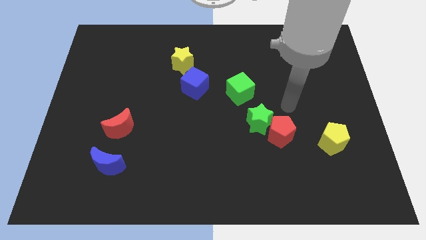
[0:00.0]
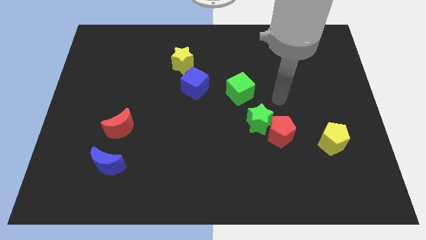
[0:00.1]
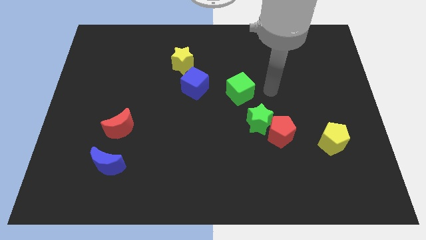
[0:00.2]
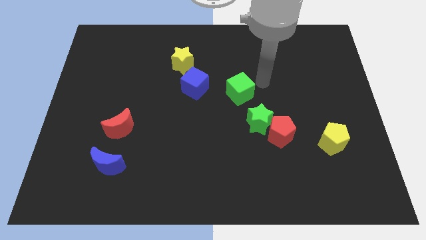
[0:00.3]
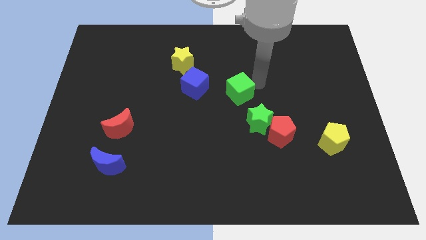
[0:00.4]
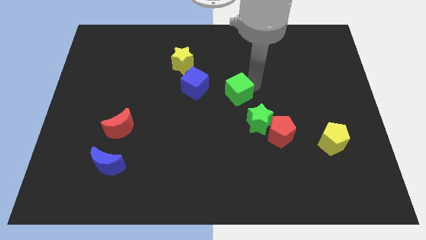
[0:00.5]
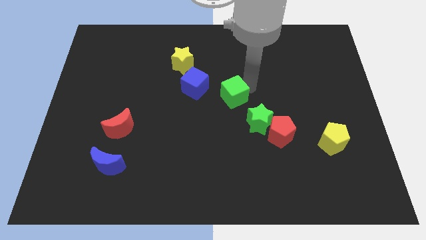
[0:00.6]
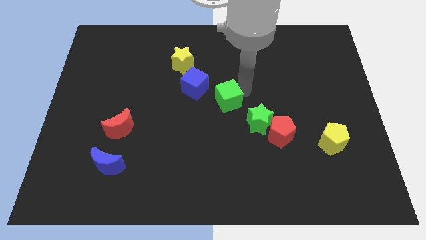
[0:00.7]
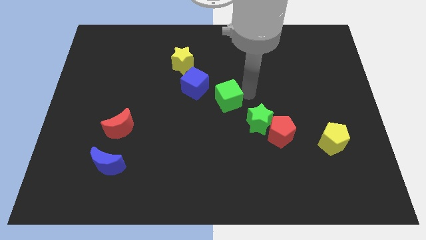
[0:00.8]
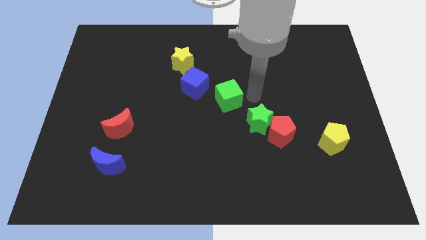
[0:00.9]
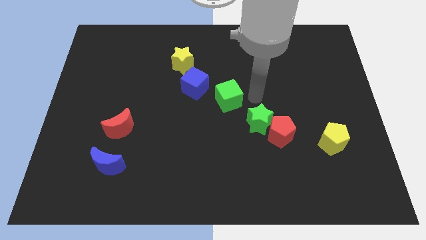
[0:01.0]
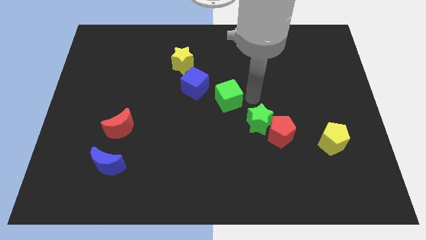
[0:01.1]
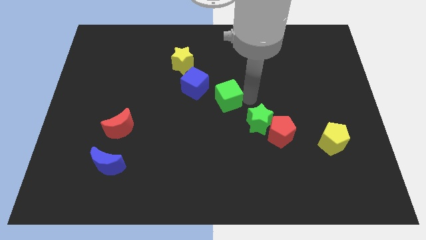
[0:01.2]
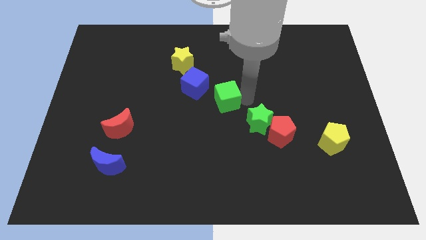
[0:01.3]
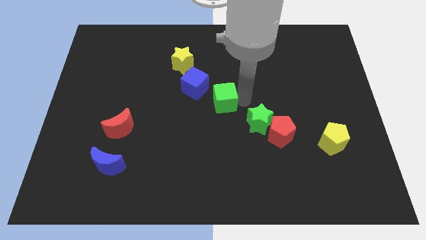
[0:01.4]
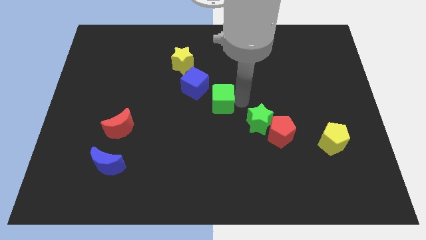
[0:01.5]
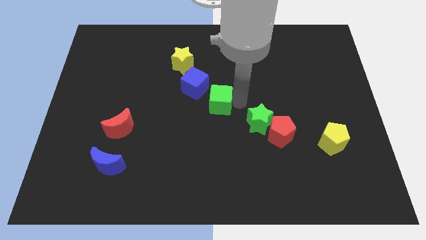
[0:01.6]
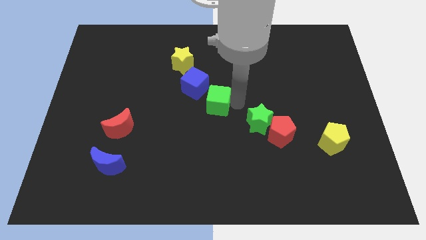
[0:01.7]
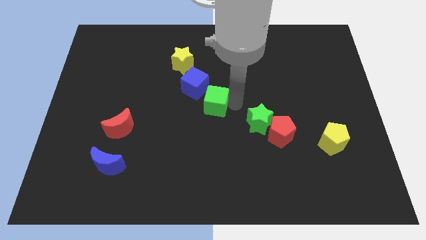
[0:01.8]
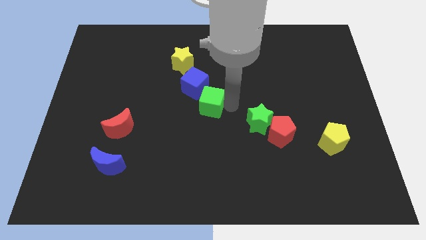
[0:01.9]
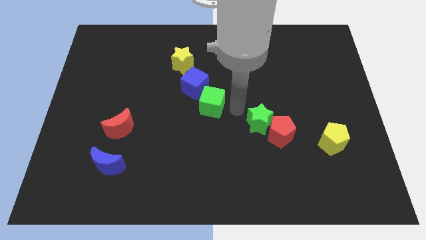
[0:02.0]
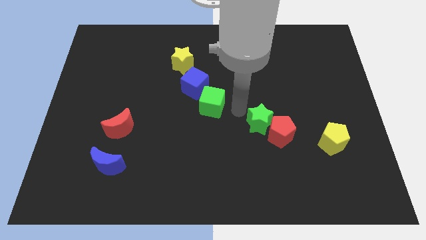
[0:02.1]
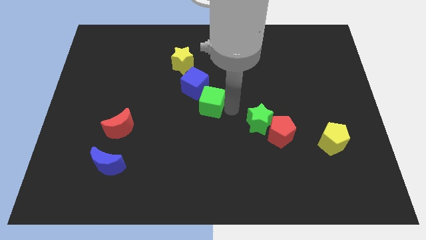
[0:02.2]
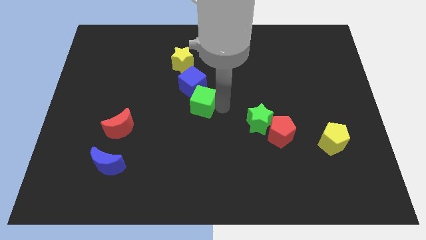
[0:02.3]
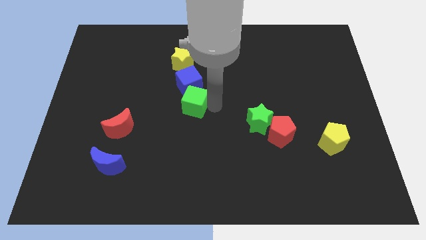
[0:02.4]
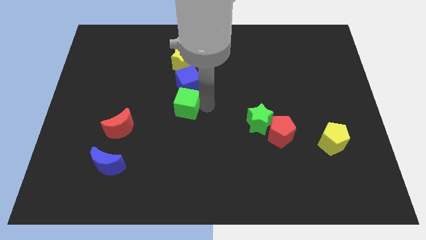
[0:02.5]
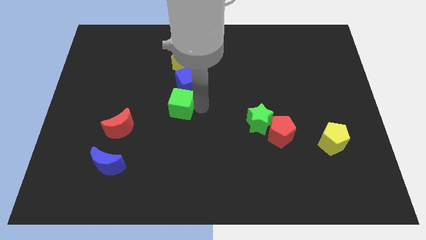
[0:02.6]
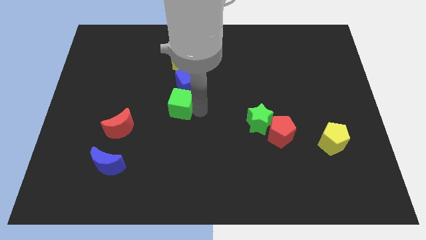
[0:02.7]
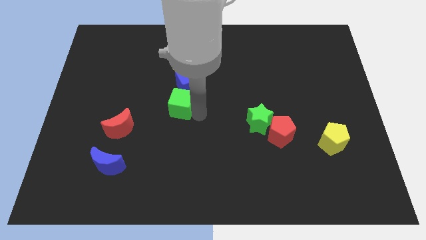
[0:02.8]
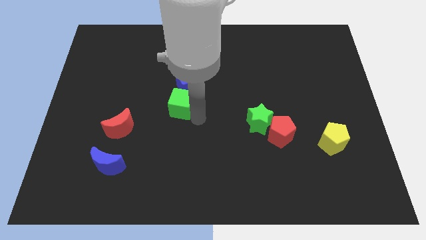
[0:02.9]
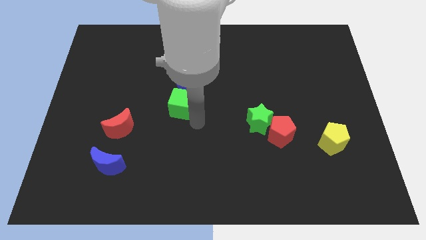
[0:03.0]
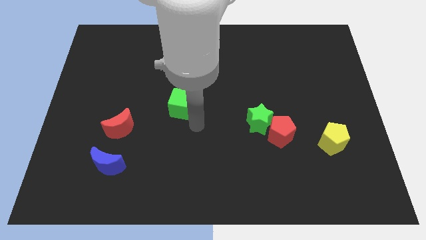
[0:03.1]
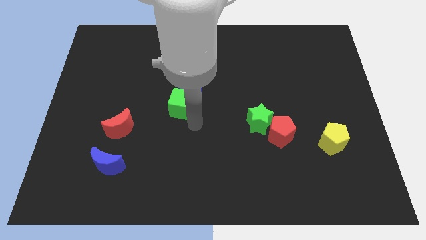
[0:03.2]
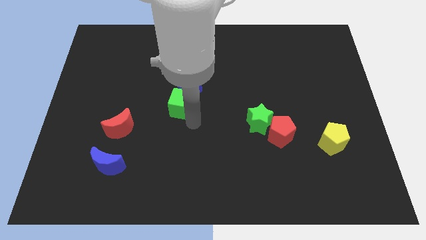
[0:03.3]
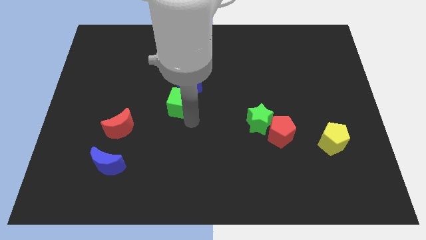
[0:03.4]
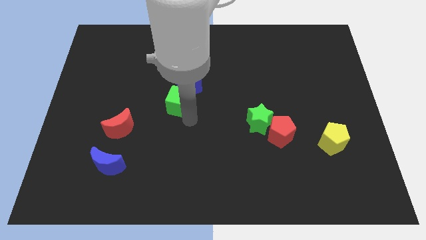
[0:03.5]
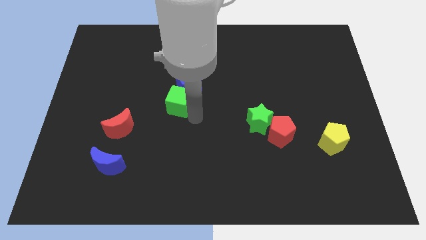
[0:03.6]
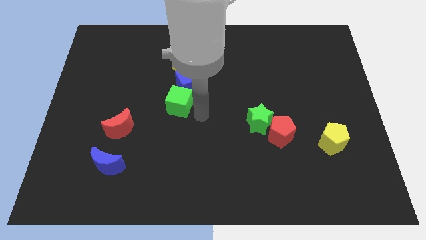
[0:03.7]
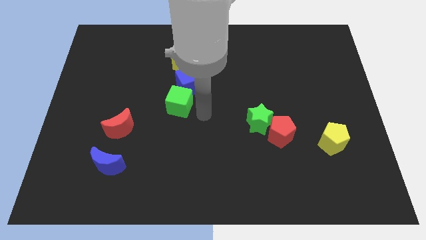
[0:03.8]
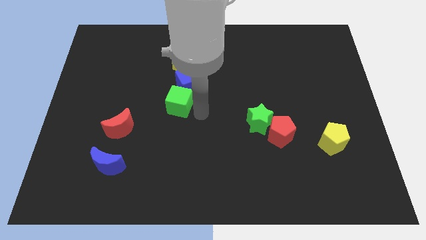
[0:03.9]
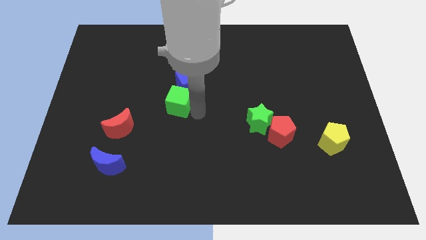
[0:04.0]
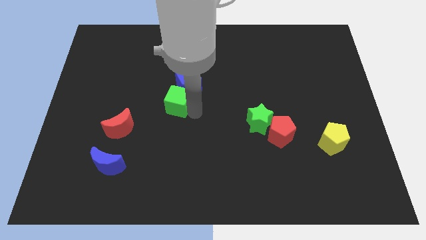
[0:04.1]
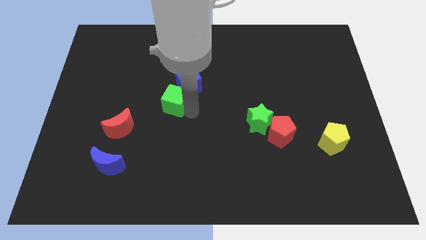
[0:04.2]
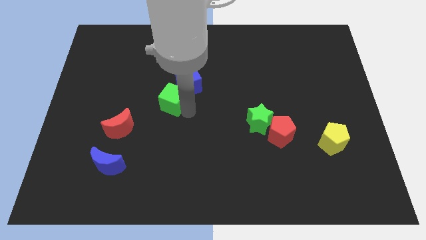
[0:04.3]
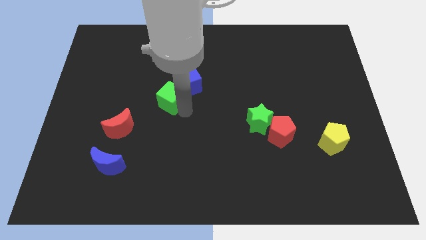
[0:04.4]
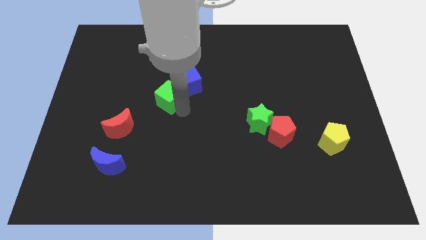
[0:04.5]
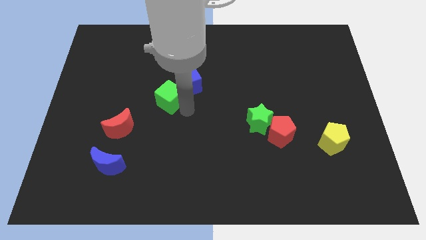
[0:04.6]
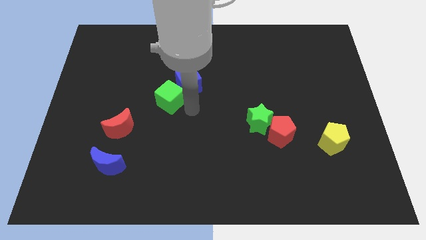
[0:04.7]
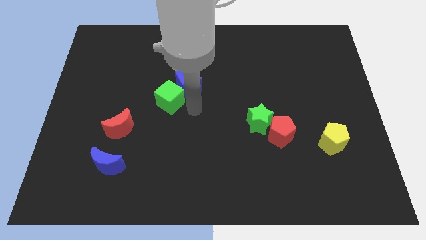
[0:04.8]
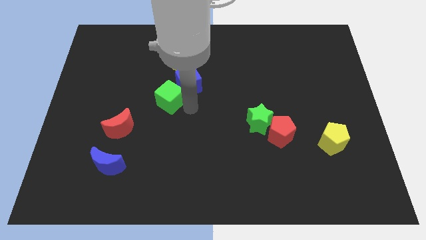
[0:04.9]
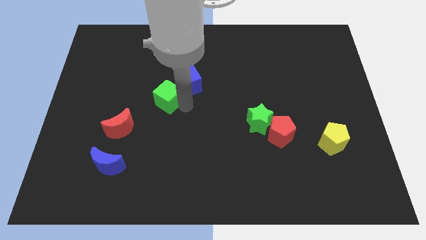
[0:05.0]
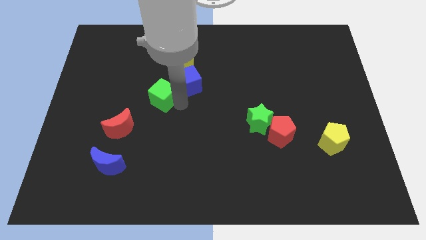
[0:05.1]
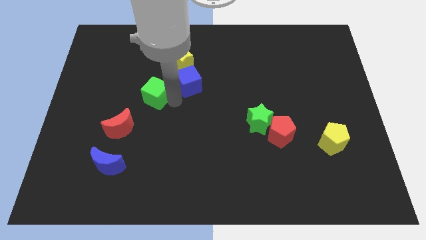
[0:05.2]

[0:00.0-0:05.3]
slide the green cube left

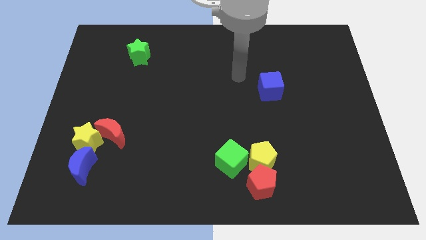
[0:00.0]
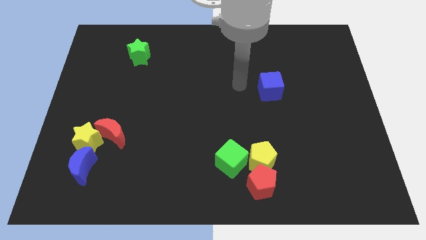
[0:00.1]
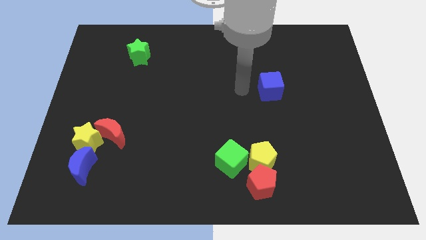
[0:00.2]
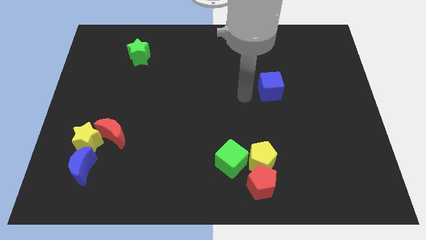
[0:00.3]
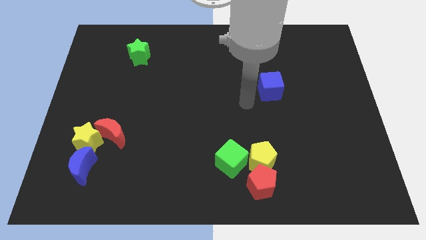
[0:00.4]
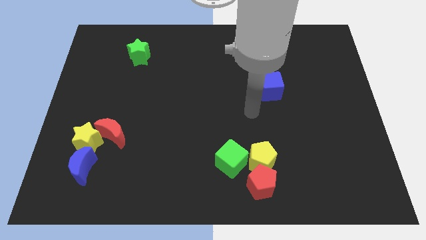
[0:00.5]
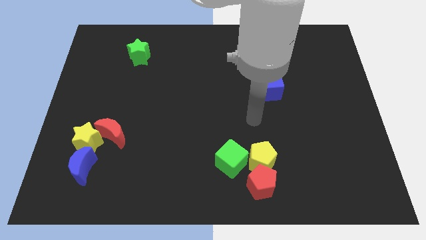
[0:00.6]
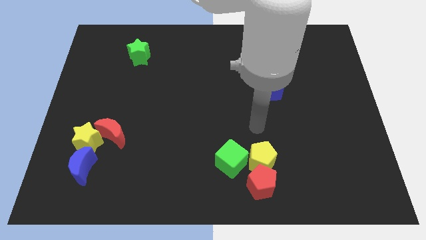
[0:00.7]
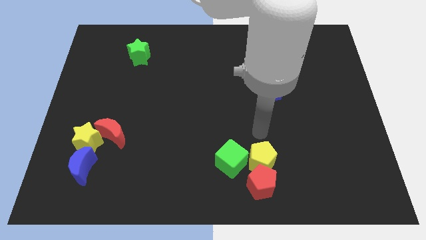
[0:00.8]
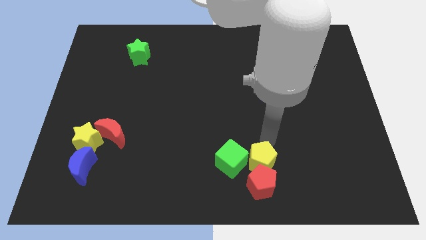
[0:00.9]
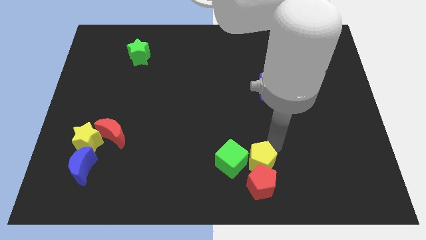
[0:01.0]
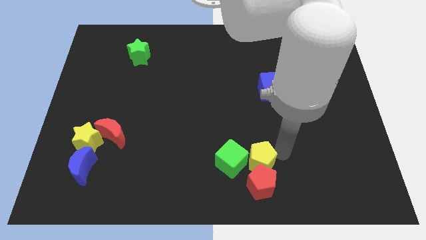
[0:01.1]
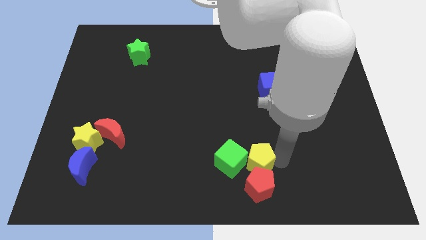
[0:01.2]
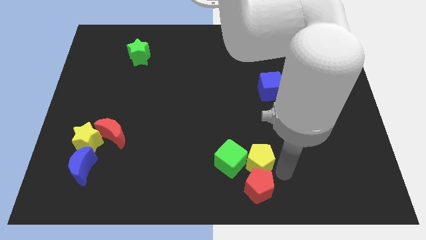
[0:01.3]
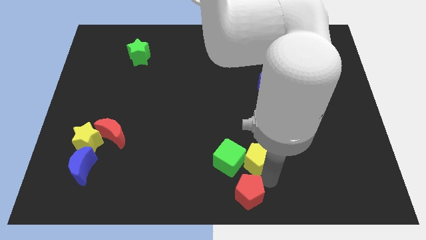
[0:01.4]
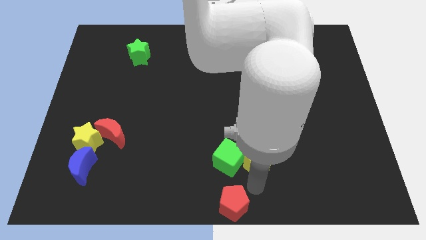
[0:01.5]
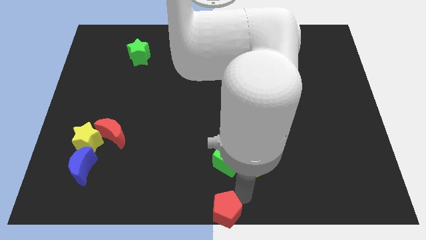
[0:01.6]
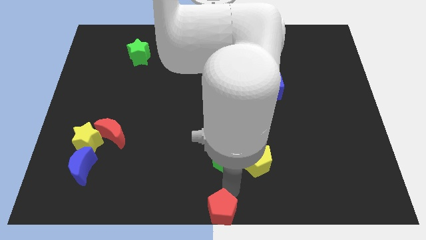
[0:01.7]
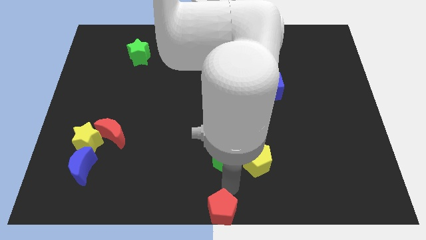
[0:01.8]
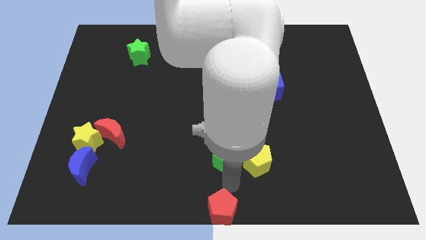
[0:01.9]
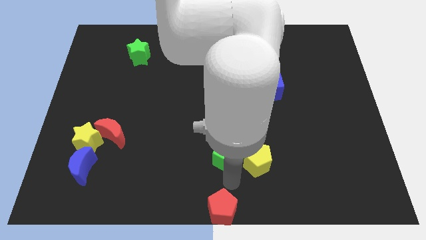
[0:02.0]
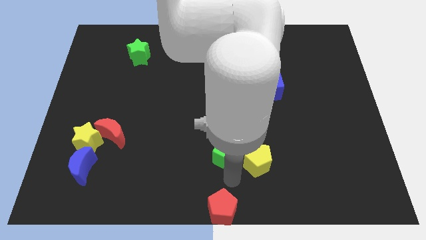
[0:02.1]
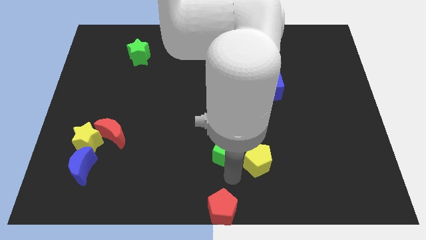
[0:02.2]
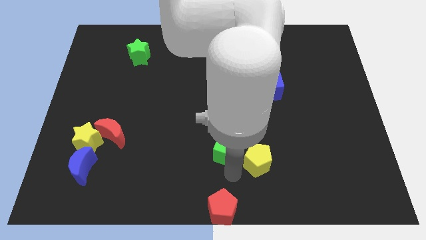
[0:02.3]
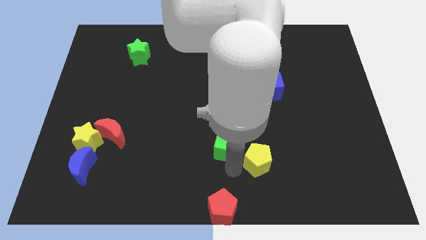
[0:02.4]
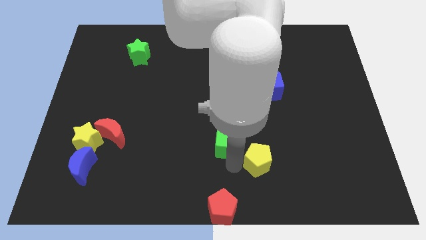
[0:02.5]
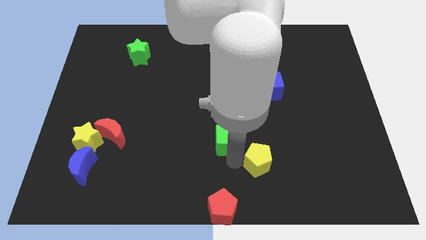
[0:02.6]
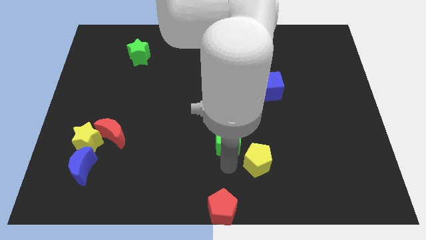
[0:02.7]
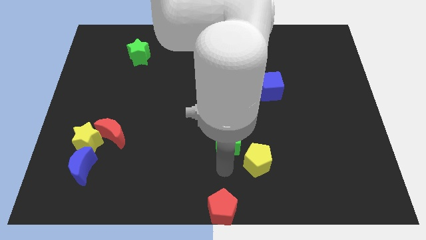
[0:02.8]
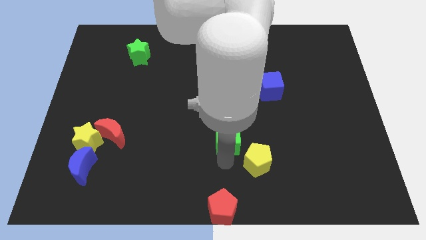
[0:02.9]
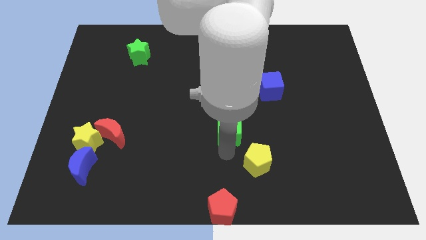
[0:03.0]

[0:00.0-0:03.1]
move the green cube a little bit up
